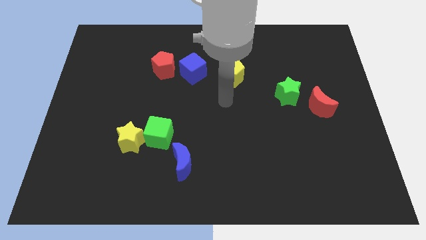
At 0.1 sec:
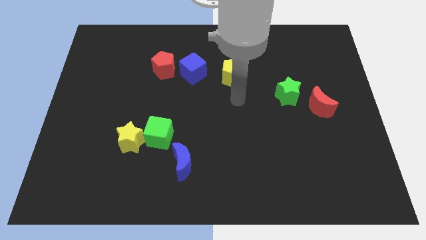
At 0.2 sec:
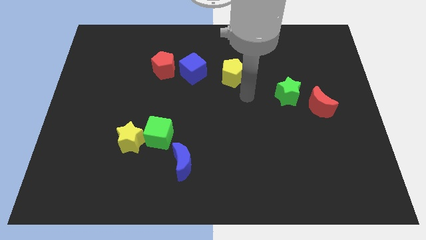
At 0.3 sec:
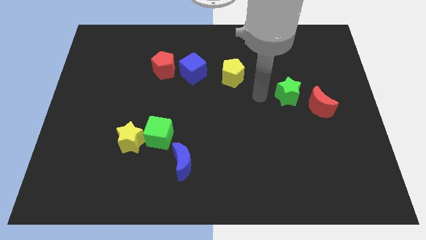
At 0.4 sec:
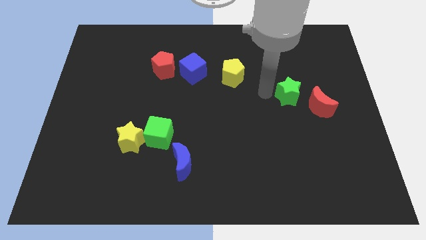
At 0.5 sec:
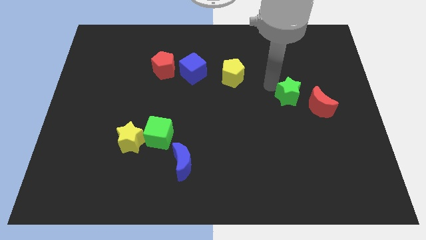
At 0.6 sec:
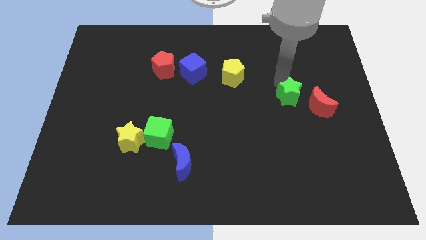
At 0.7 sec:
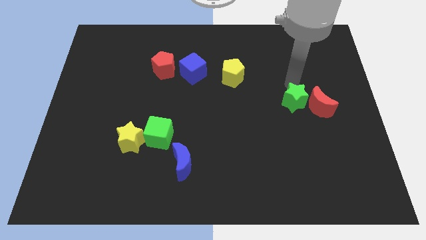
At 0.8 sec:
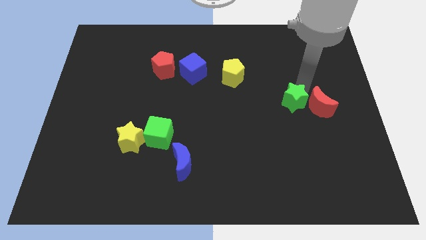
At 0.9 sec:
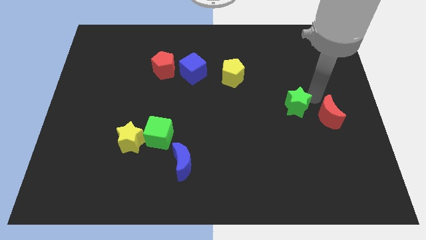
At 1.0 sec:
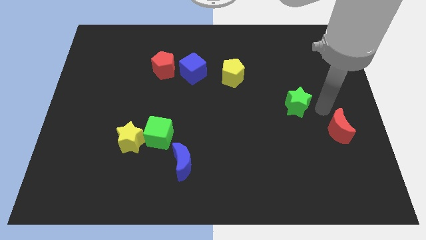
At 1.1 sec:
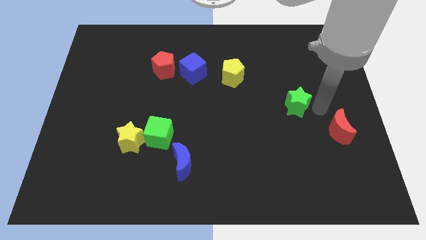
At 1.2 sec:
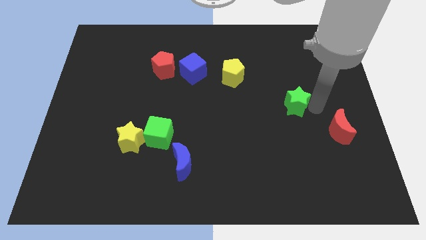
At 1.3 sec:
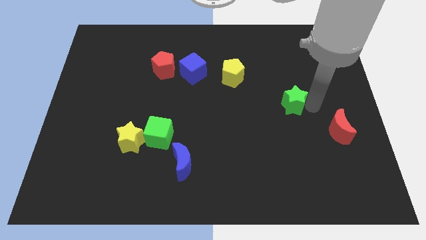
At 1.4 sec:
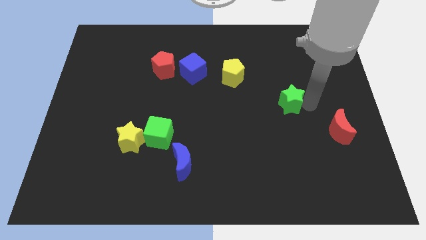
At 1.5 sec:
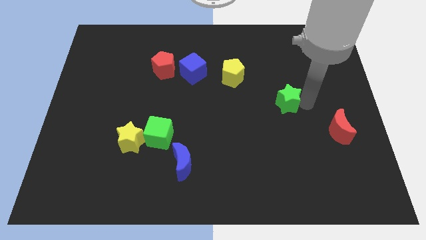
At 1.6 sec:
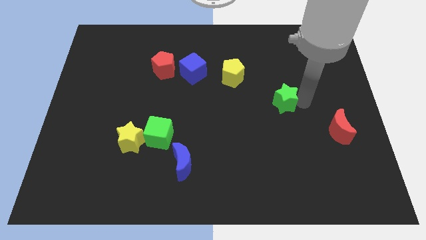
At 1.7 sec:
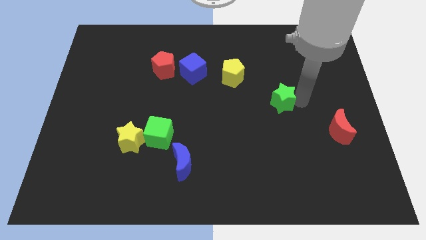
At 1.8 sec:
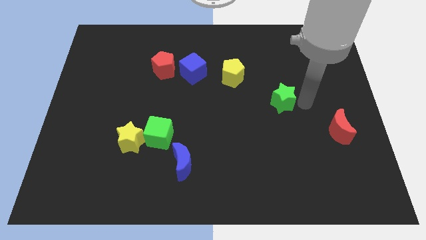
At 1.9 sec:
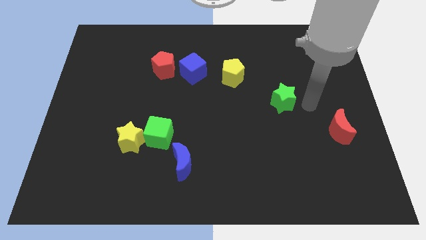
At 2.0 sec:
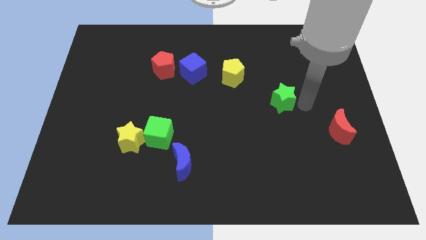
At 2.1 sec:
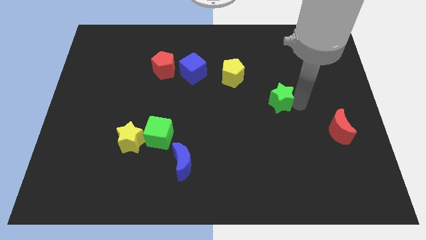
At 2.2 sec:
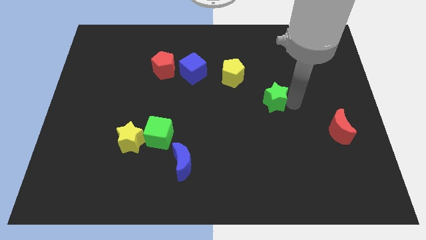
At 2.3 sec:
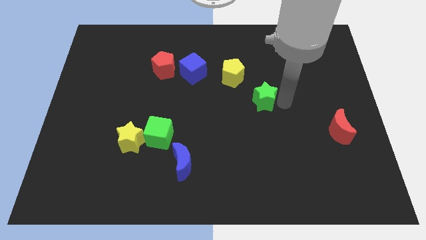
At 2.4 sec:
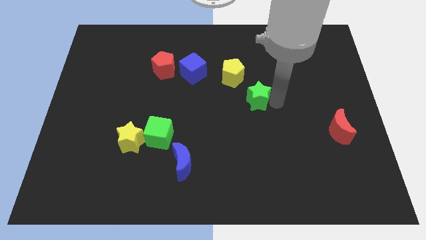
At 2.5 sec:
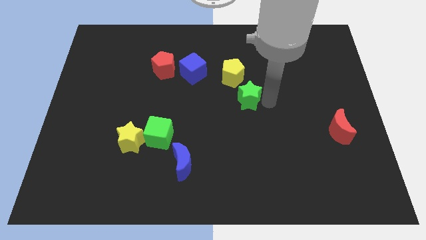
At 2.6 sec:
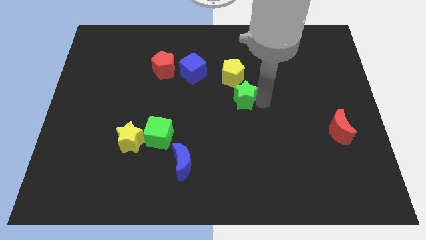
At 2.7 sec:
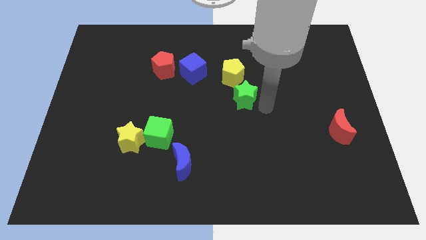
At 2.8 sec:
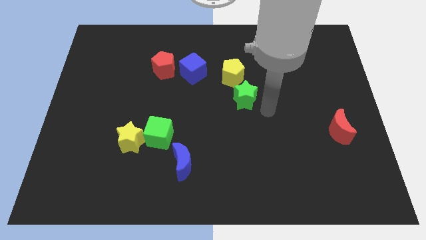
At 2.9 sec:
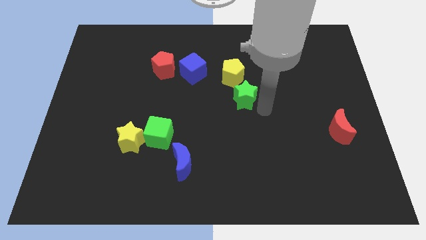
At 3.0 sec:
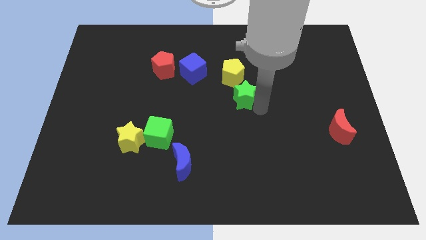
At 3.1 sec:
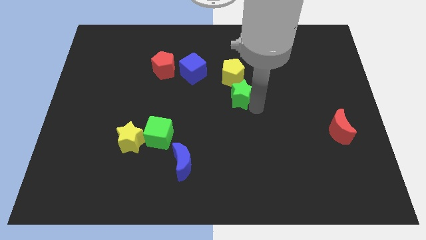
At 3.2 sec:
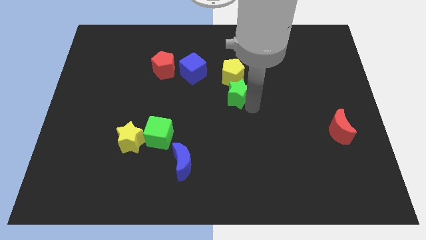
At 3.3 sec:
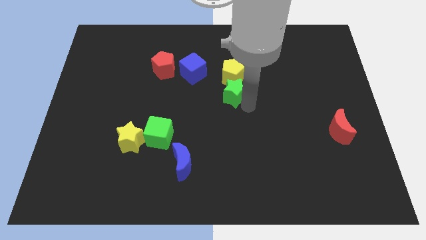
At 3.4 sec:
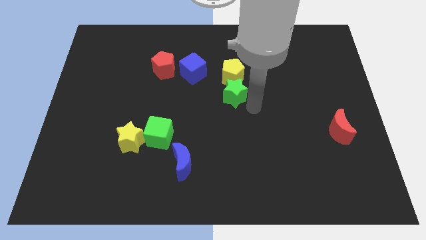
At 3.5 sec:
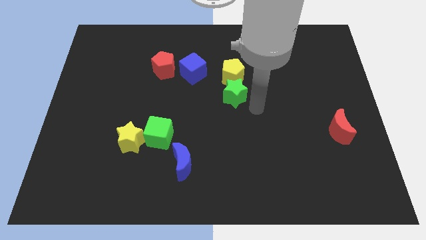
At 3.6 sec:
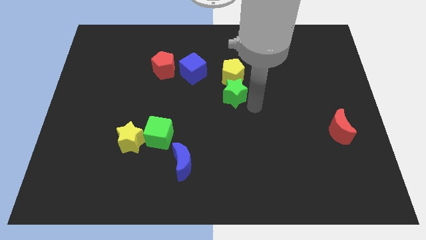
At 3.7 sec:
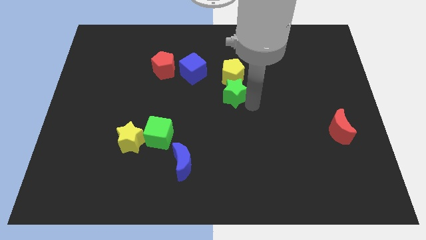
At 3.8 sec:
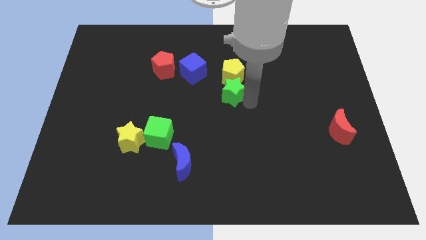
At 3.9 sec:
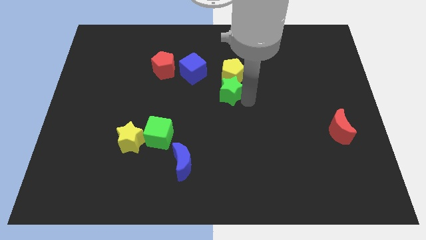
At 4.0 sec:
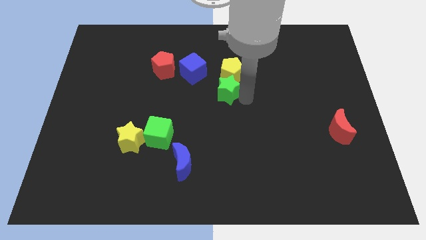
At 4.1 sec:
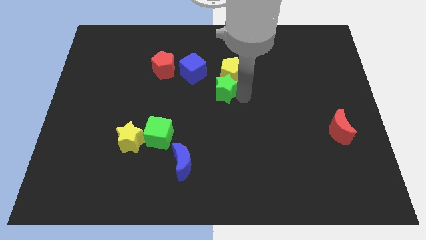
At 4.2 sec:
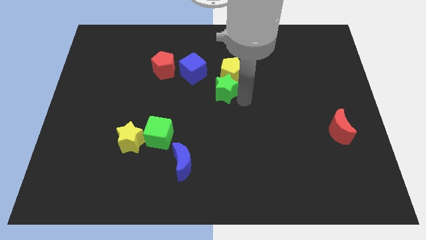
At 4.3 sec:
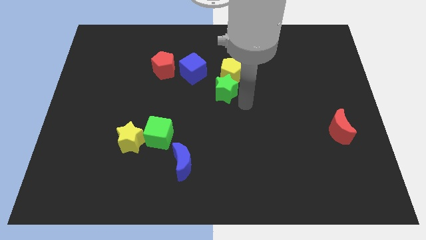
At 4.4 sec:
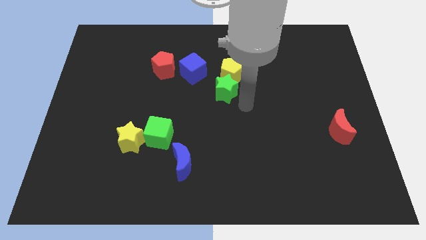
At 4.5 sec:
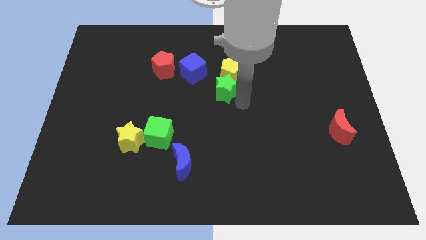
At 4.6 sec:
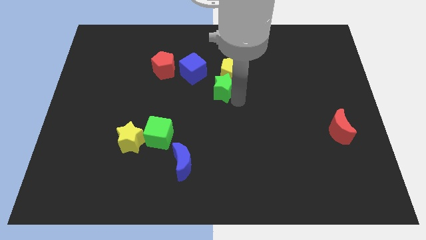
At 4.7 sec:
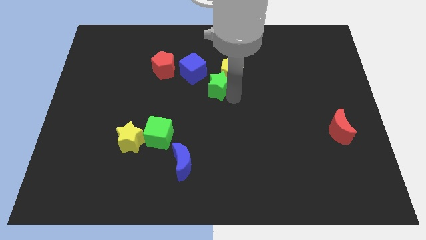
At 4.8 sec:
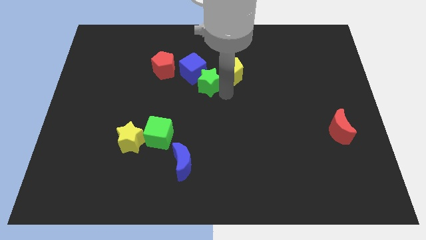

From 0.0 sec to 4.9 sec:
push the green star to the blue cube

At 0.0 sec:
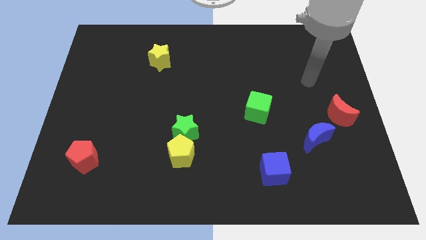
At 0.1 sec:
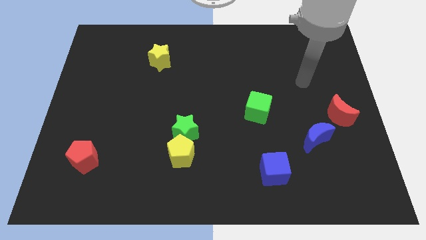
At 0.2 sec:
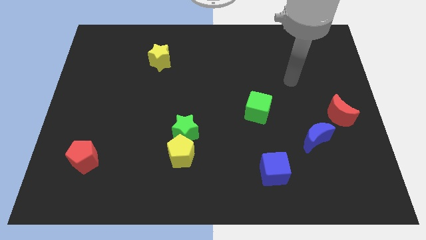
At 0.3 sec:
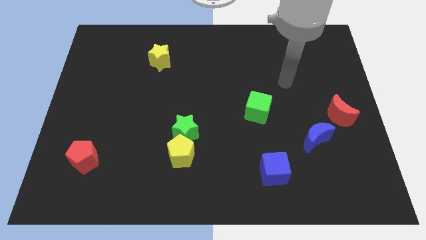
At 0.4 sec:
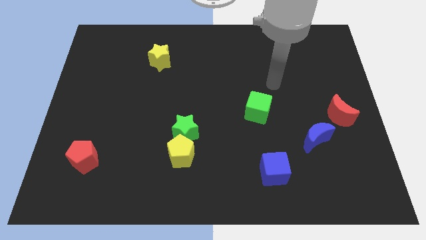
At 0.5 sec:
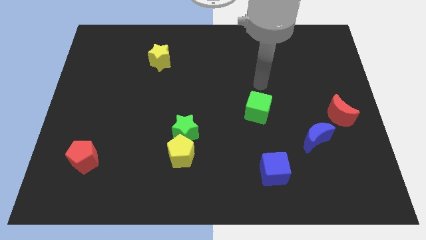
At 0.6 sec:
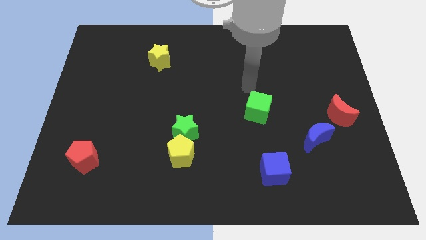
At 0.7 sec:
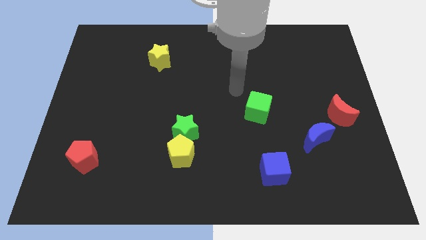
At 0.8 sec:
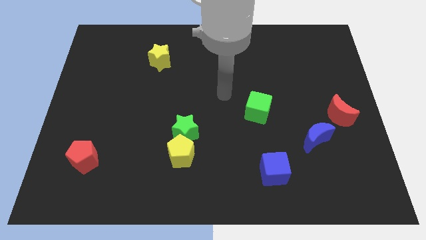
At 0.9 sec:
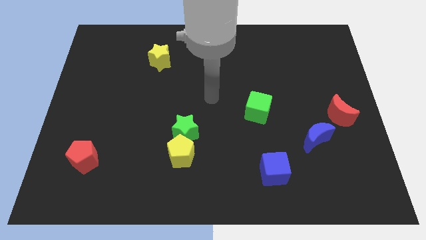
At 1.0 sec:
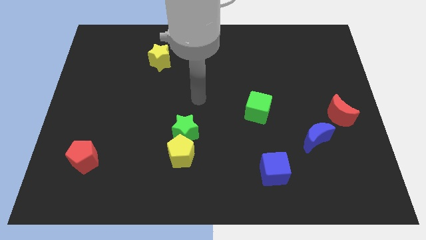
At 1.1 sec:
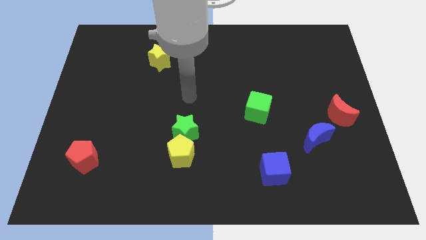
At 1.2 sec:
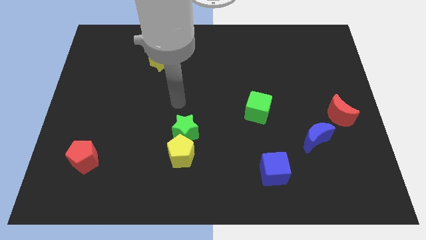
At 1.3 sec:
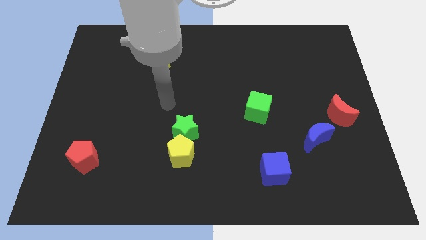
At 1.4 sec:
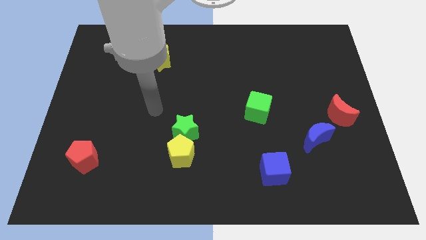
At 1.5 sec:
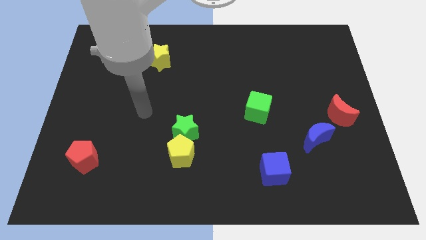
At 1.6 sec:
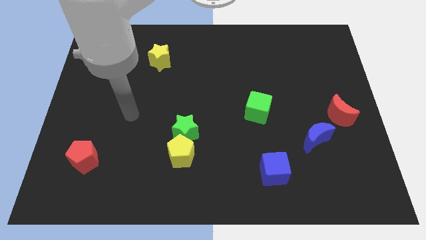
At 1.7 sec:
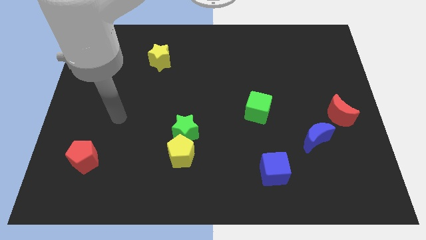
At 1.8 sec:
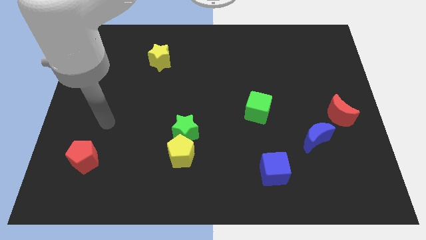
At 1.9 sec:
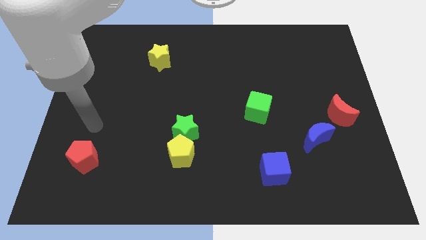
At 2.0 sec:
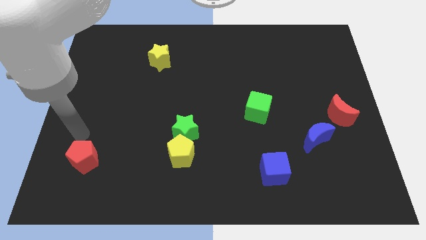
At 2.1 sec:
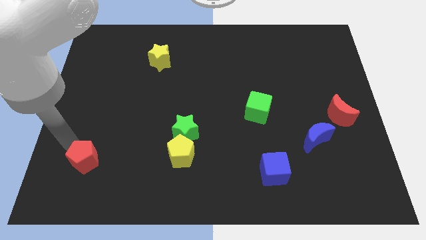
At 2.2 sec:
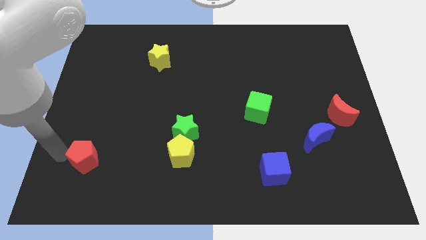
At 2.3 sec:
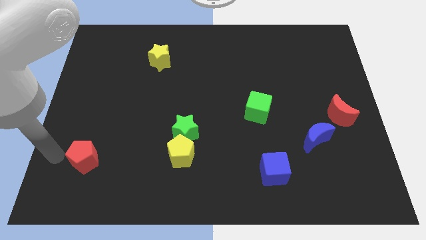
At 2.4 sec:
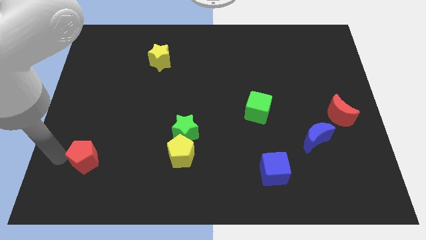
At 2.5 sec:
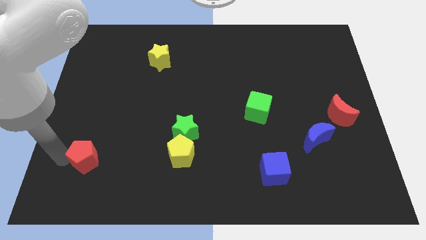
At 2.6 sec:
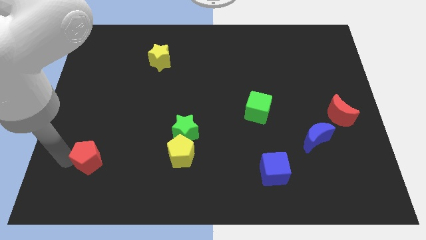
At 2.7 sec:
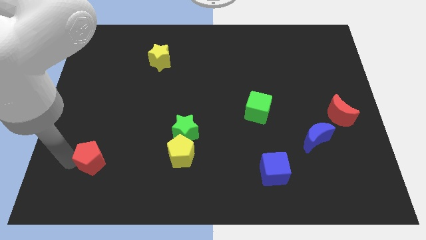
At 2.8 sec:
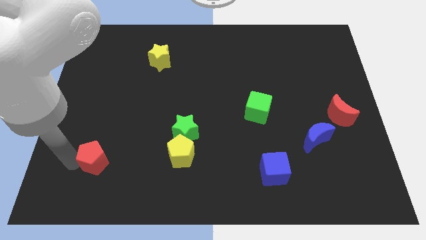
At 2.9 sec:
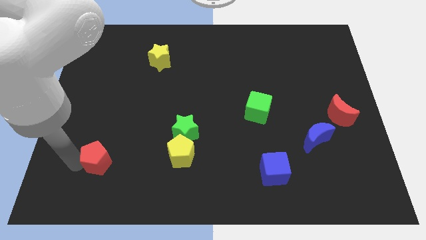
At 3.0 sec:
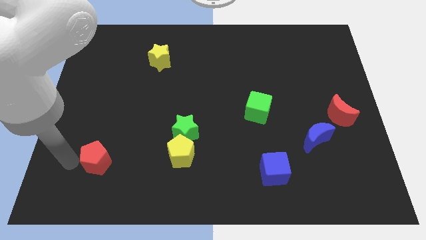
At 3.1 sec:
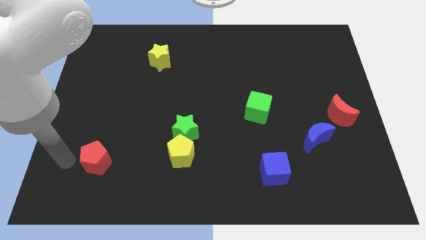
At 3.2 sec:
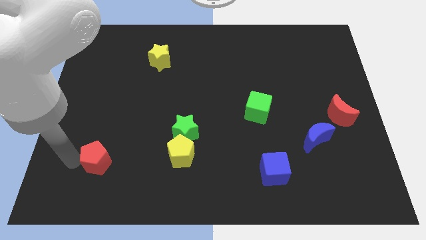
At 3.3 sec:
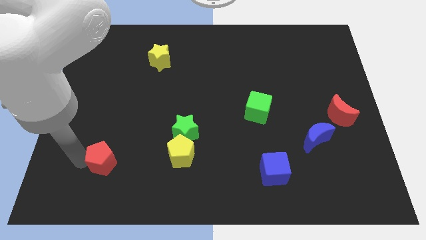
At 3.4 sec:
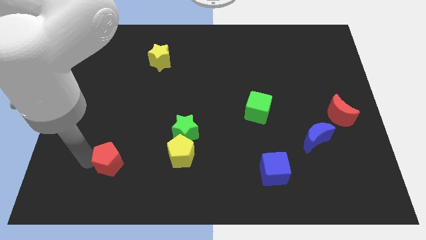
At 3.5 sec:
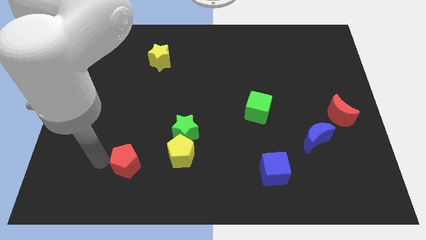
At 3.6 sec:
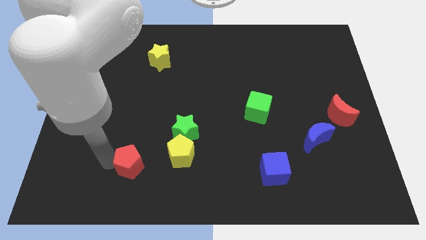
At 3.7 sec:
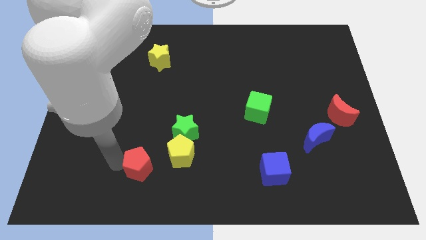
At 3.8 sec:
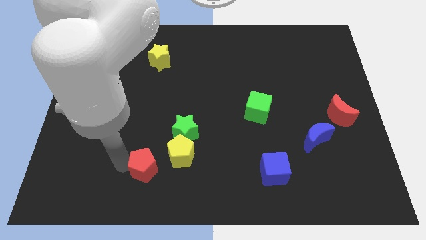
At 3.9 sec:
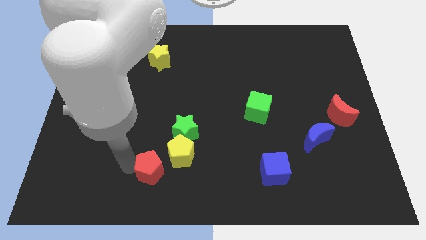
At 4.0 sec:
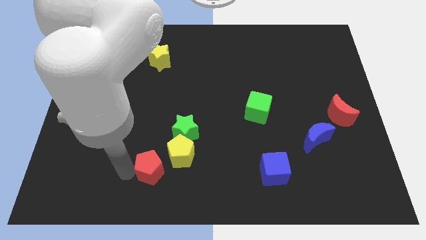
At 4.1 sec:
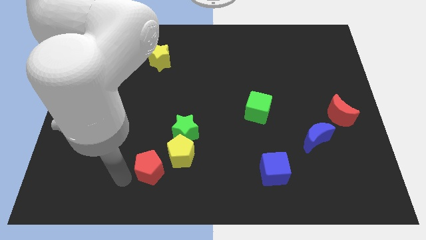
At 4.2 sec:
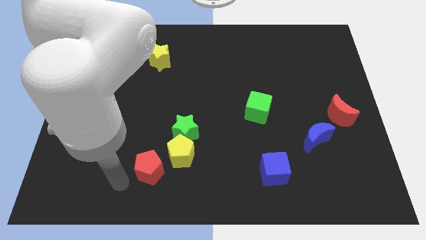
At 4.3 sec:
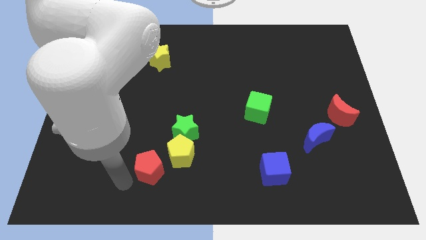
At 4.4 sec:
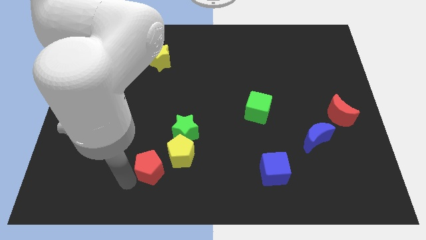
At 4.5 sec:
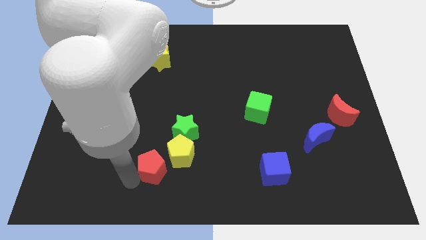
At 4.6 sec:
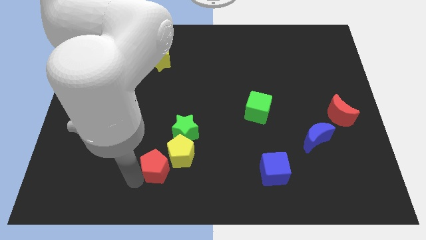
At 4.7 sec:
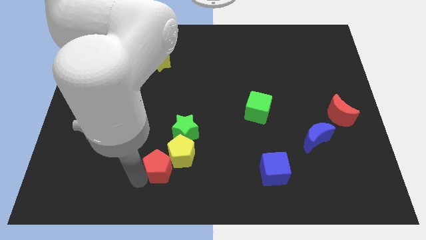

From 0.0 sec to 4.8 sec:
push the red pentagon towards the yellow pentagon
